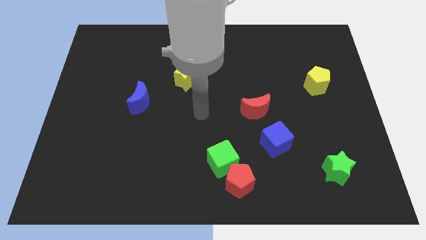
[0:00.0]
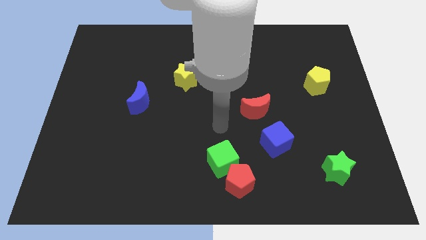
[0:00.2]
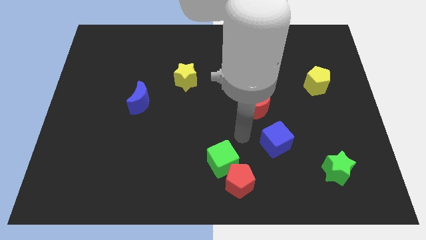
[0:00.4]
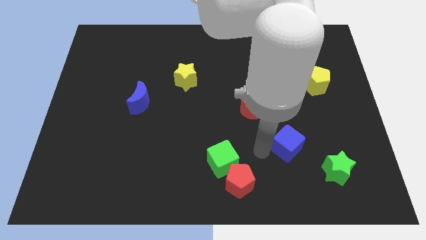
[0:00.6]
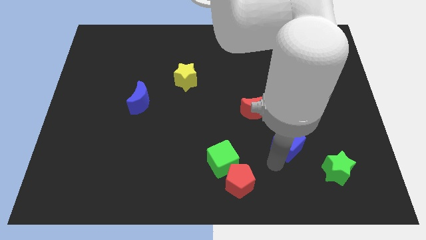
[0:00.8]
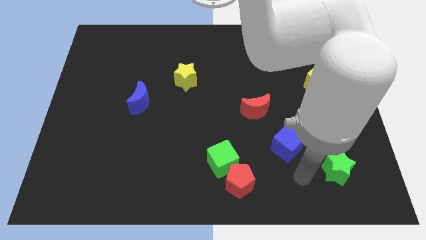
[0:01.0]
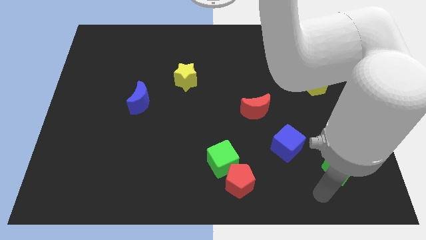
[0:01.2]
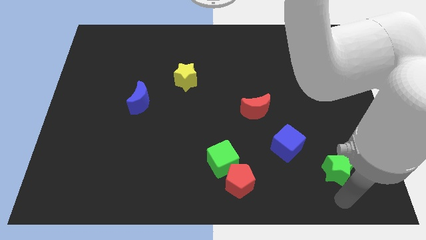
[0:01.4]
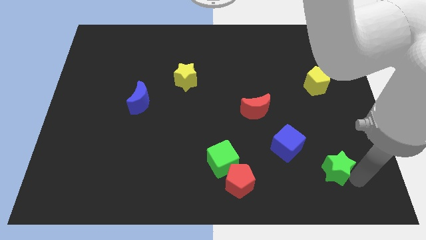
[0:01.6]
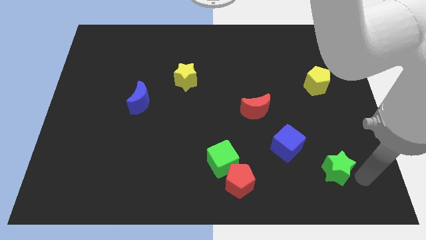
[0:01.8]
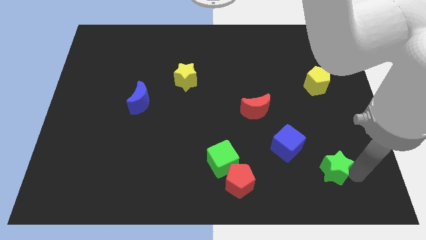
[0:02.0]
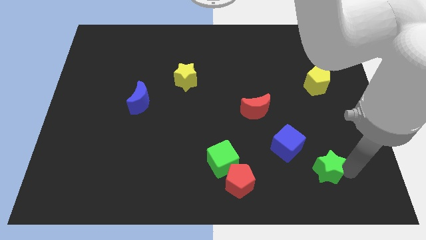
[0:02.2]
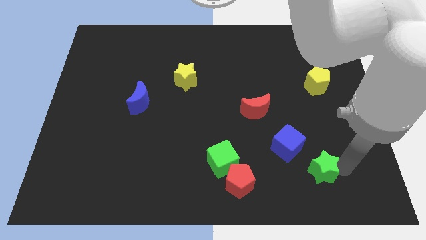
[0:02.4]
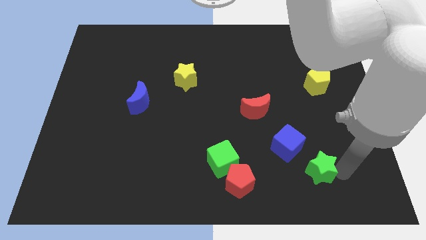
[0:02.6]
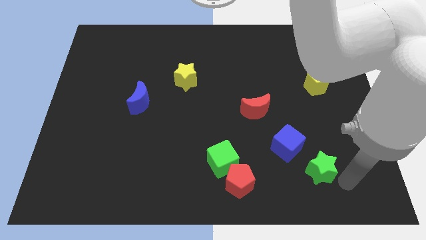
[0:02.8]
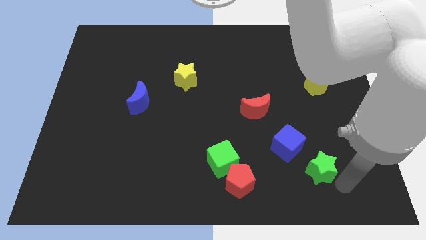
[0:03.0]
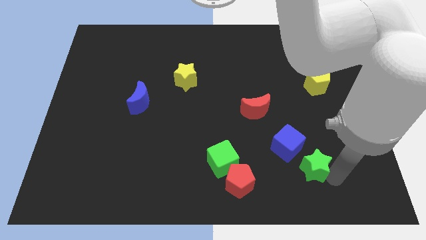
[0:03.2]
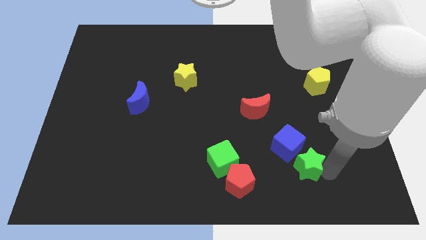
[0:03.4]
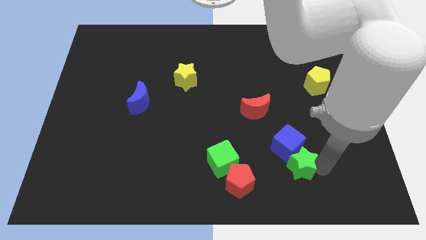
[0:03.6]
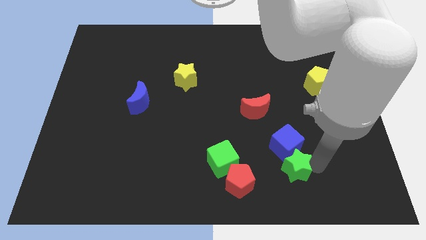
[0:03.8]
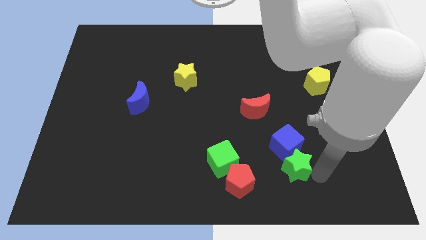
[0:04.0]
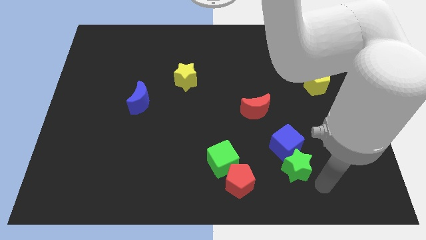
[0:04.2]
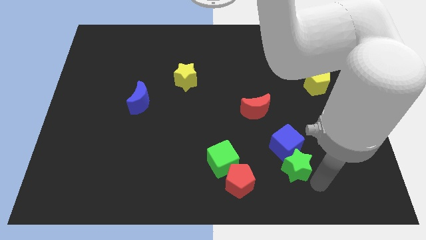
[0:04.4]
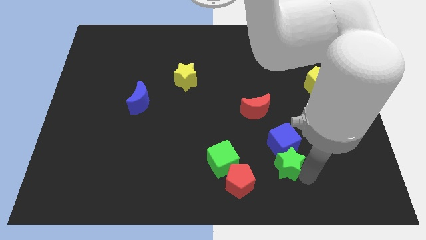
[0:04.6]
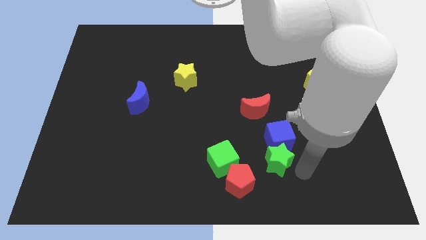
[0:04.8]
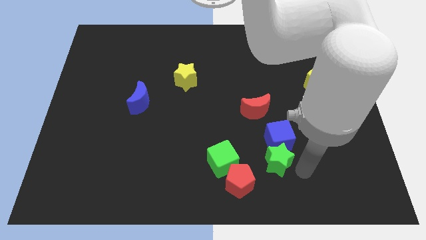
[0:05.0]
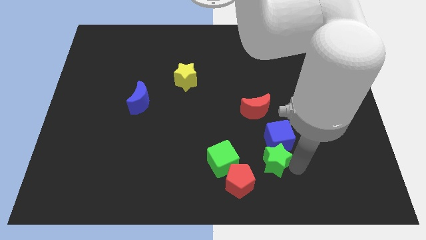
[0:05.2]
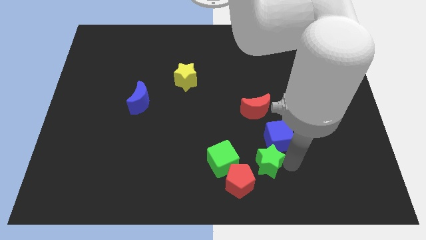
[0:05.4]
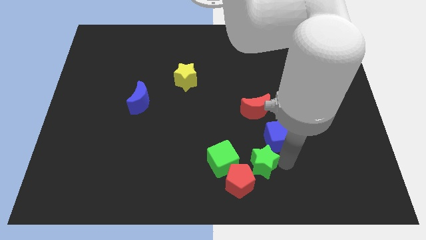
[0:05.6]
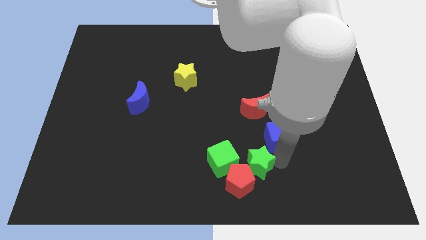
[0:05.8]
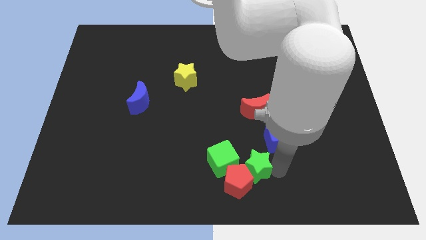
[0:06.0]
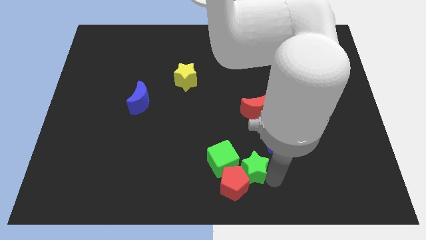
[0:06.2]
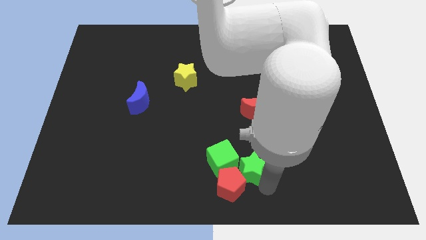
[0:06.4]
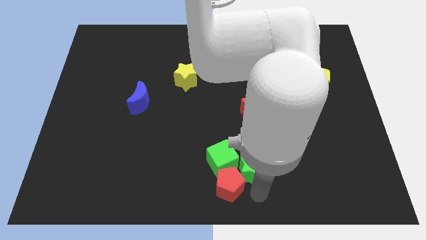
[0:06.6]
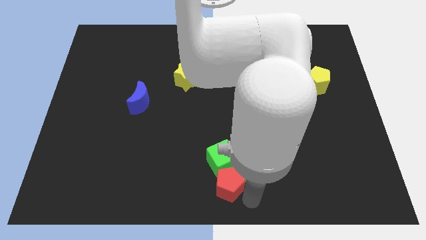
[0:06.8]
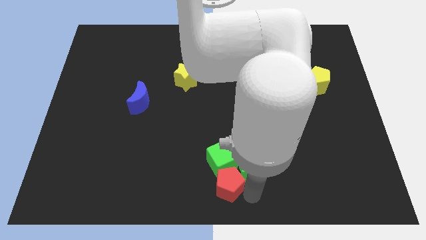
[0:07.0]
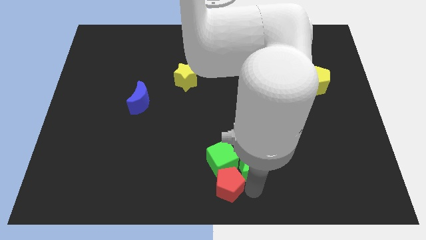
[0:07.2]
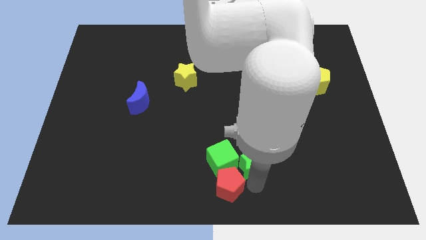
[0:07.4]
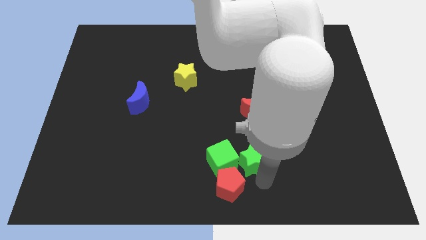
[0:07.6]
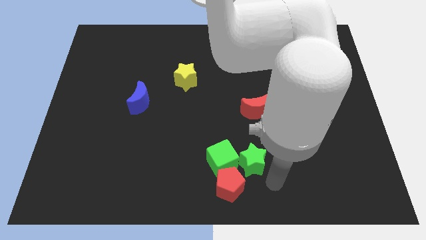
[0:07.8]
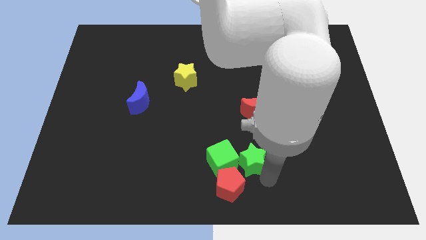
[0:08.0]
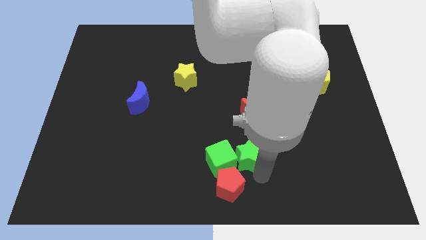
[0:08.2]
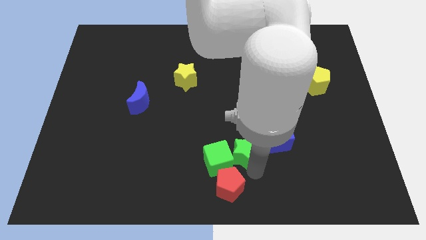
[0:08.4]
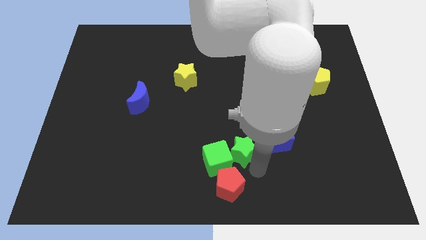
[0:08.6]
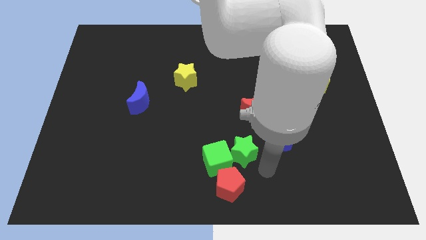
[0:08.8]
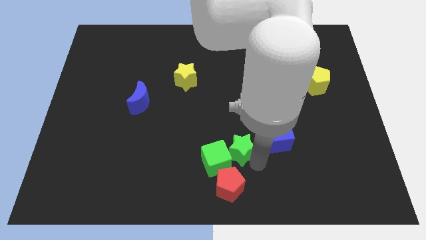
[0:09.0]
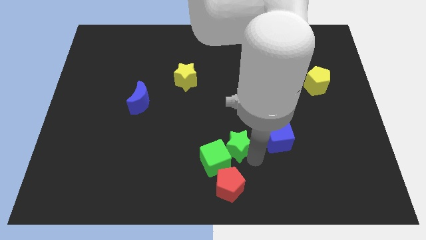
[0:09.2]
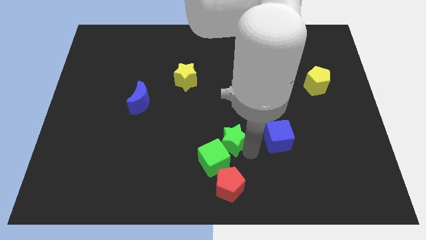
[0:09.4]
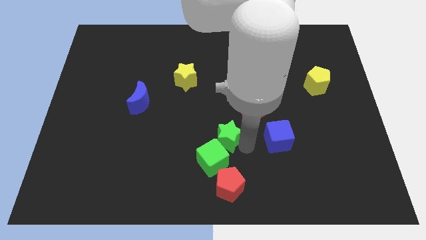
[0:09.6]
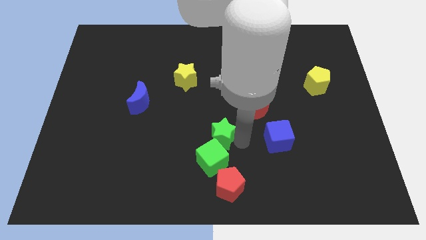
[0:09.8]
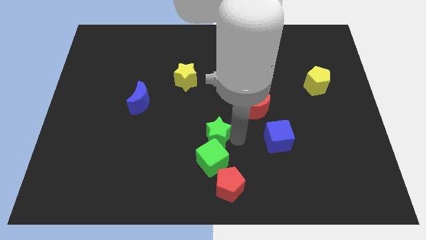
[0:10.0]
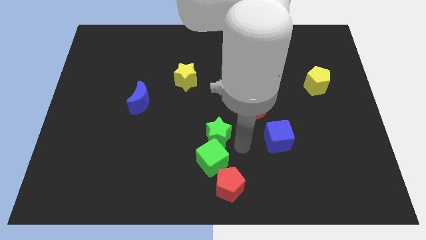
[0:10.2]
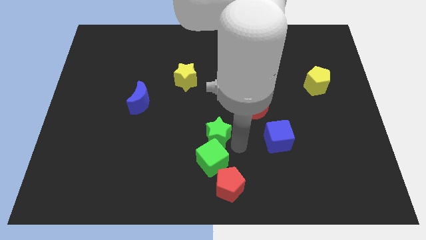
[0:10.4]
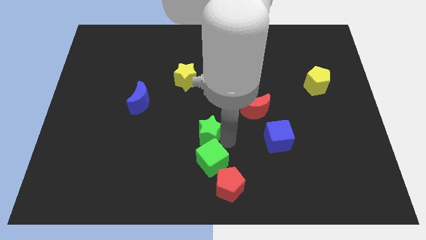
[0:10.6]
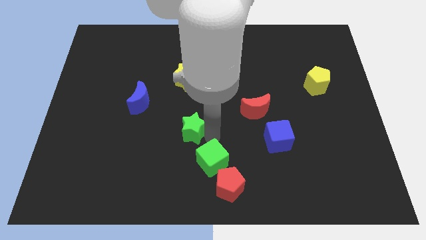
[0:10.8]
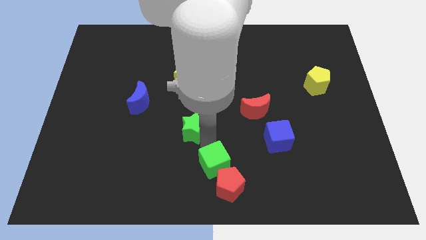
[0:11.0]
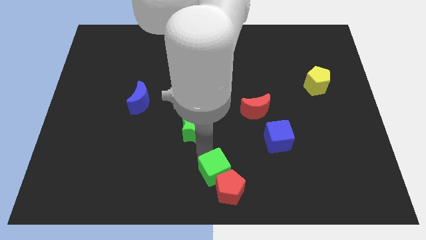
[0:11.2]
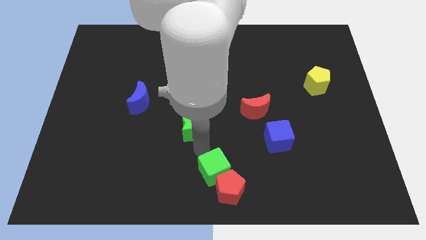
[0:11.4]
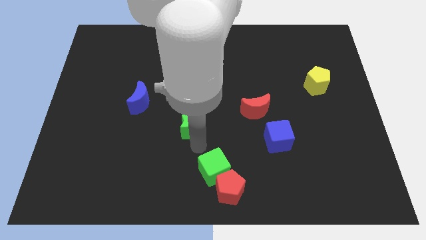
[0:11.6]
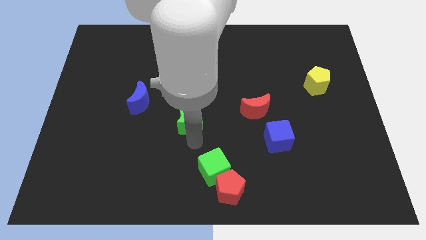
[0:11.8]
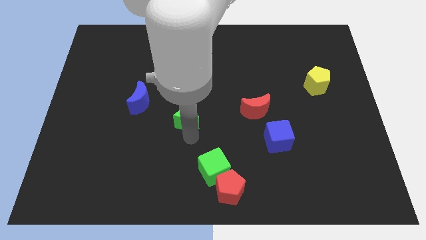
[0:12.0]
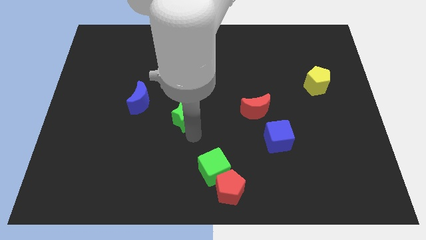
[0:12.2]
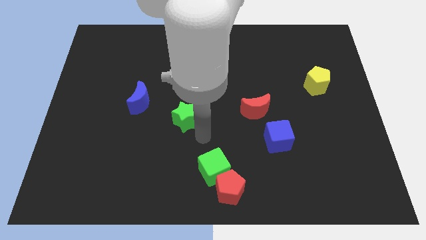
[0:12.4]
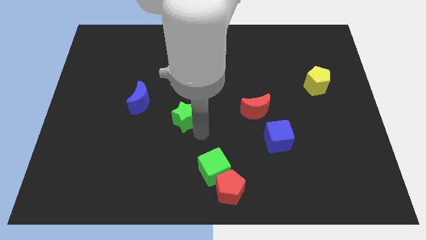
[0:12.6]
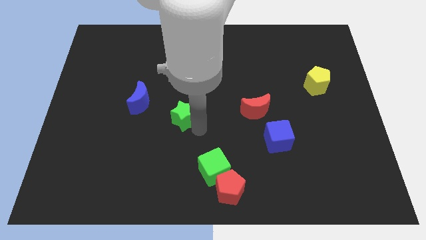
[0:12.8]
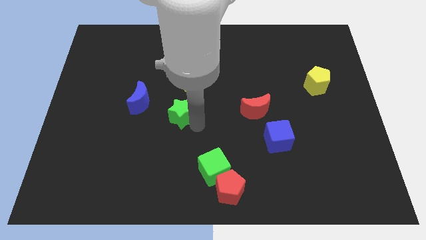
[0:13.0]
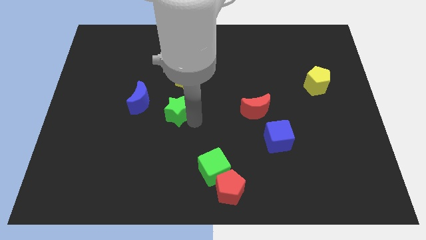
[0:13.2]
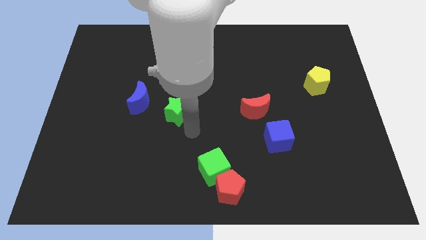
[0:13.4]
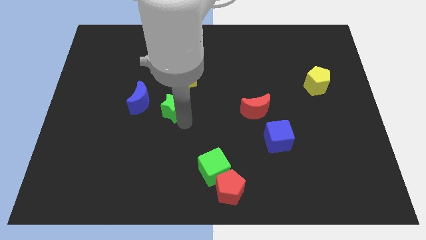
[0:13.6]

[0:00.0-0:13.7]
move the green star diagonally down and to the left of the yellow star

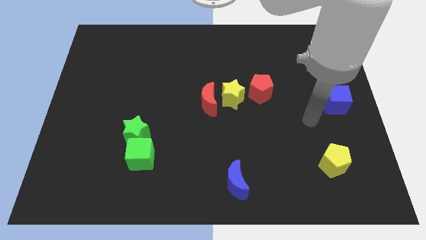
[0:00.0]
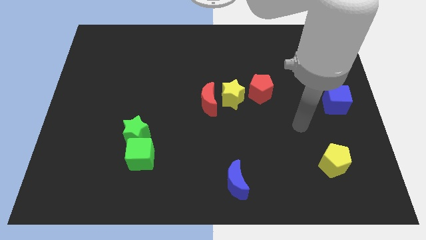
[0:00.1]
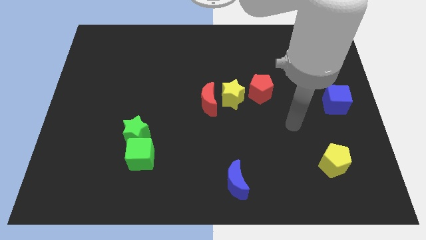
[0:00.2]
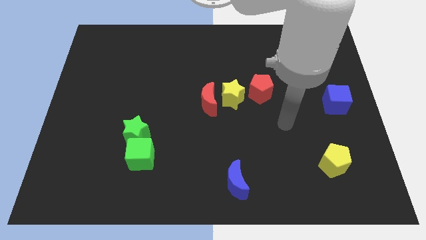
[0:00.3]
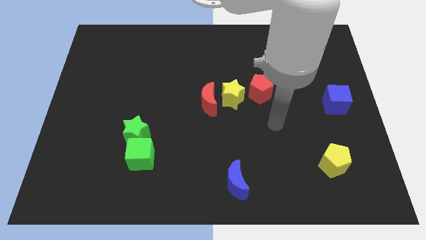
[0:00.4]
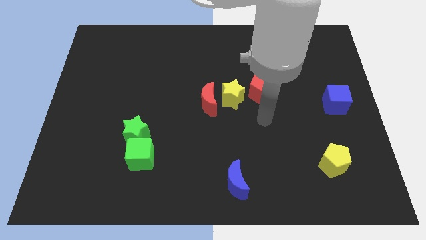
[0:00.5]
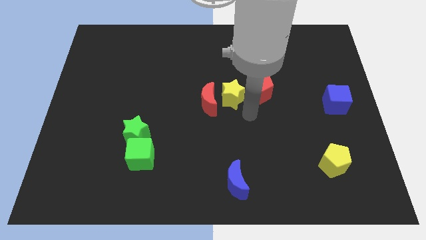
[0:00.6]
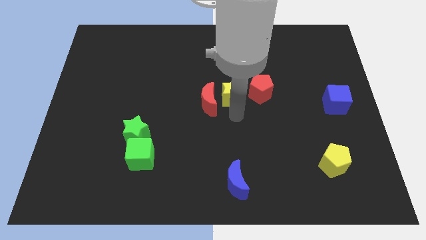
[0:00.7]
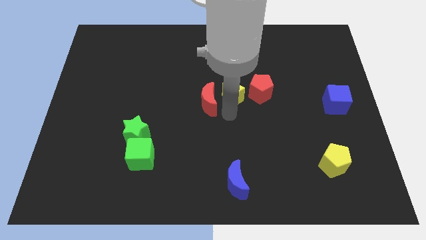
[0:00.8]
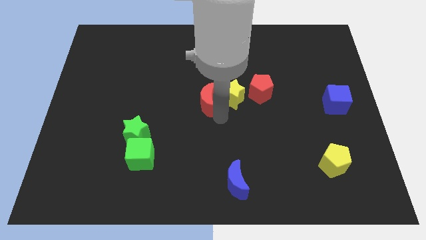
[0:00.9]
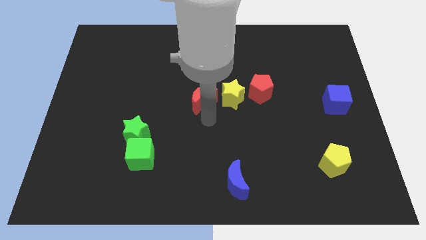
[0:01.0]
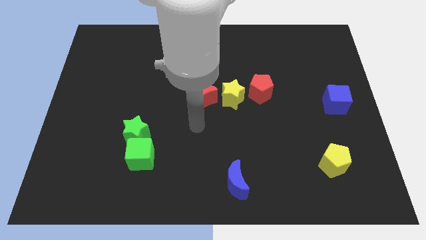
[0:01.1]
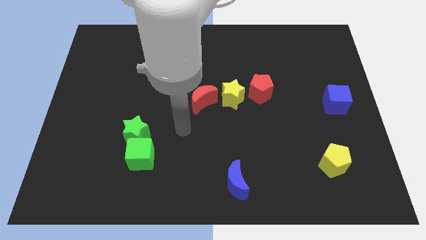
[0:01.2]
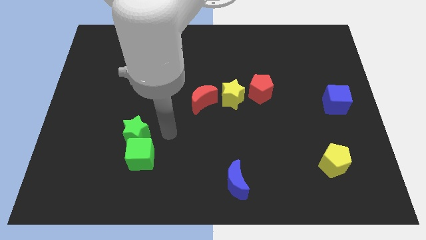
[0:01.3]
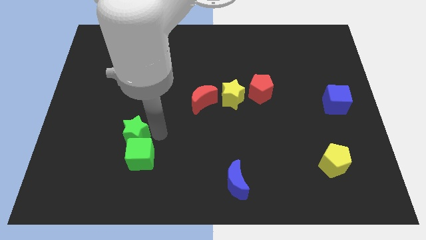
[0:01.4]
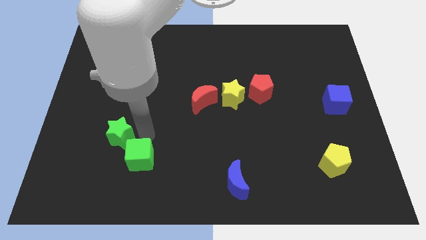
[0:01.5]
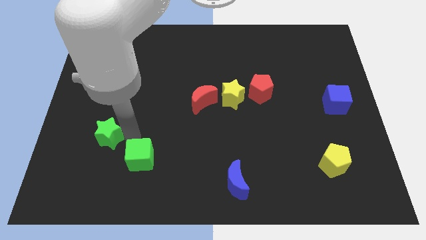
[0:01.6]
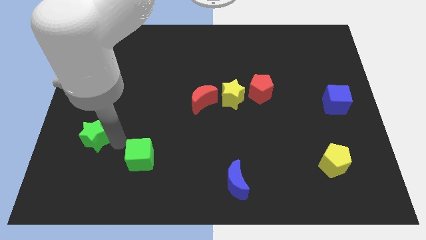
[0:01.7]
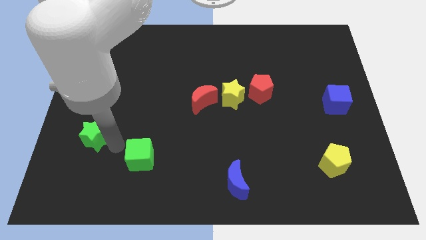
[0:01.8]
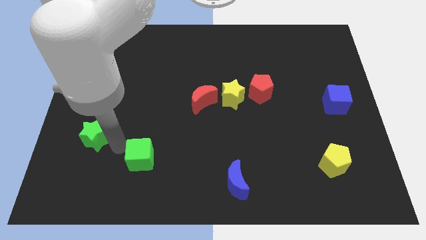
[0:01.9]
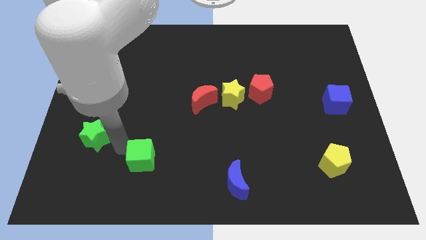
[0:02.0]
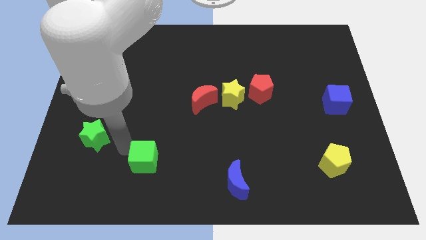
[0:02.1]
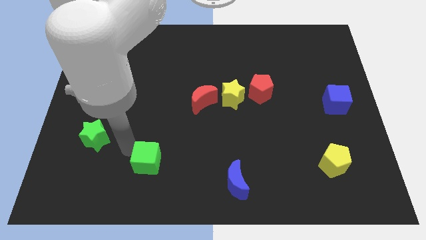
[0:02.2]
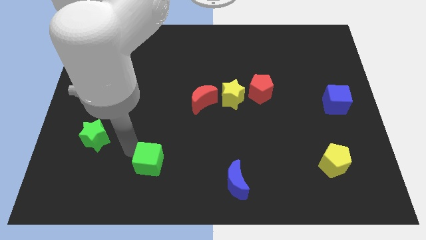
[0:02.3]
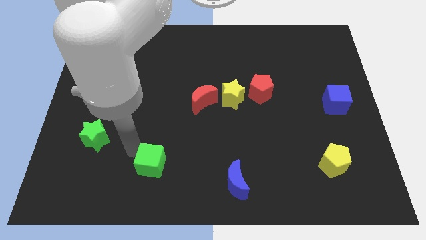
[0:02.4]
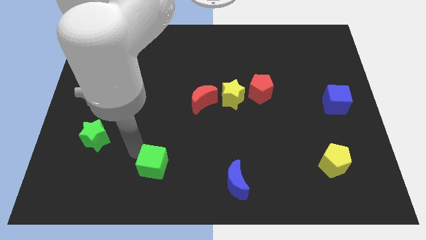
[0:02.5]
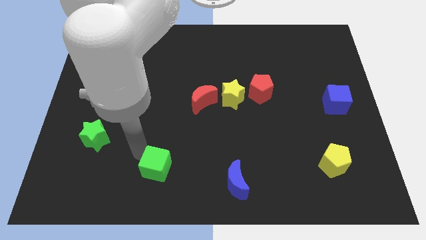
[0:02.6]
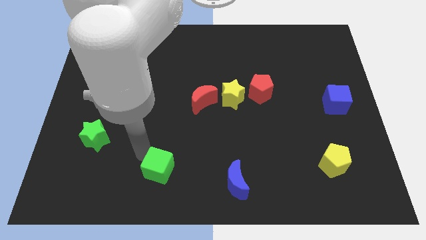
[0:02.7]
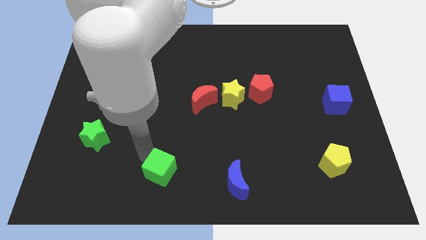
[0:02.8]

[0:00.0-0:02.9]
slide the green cube to the left of the blue moon
